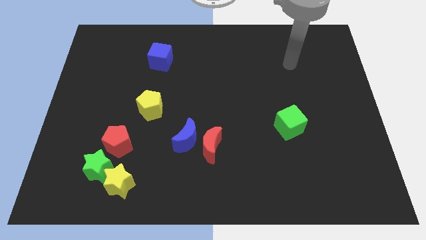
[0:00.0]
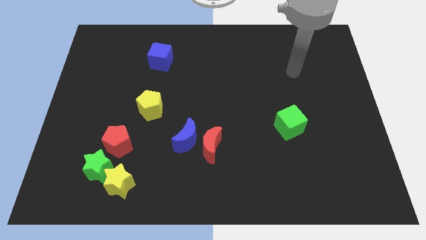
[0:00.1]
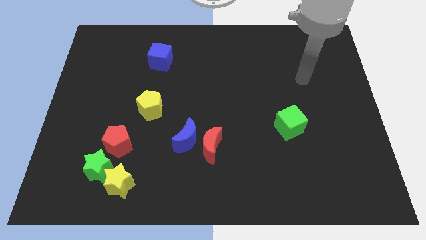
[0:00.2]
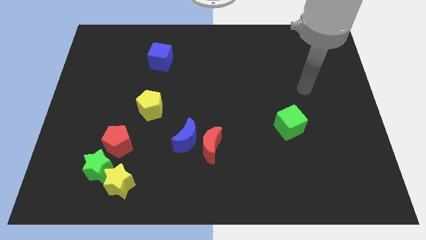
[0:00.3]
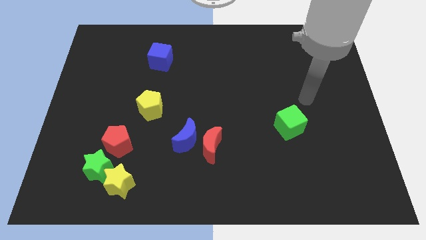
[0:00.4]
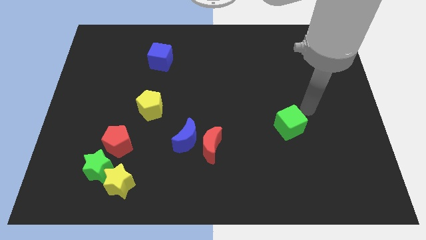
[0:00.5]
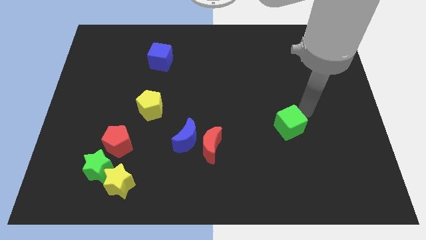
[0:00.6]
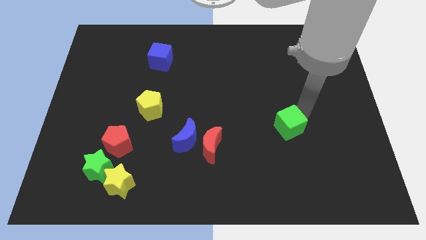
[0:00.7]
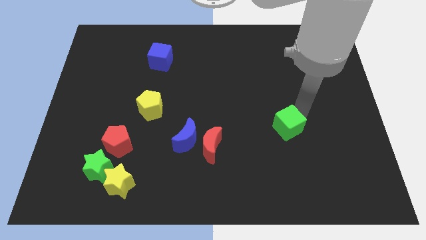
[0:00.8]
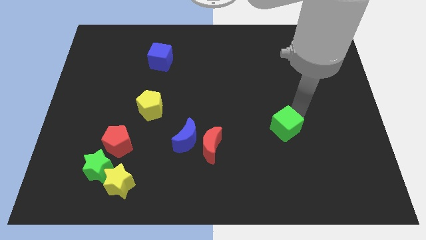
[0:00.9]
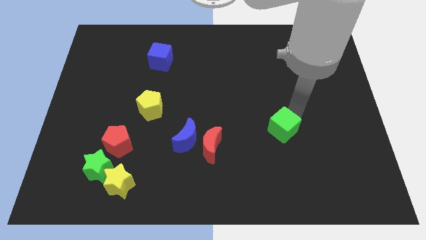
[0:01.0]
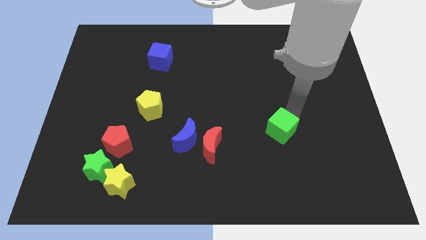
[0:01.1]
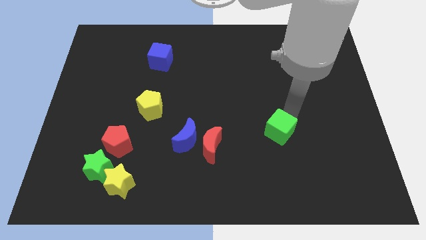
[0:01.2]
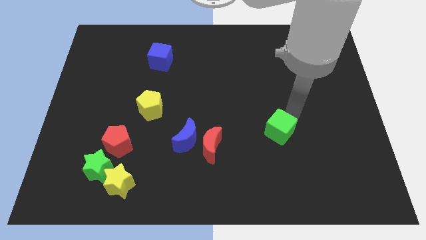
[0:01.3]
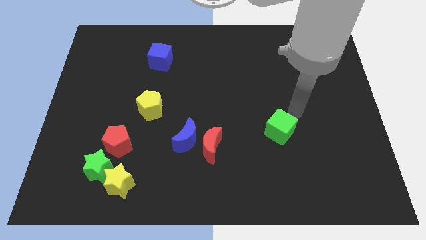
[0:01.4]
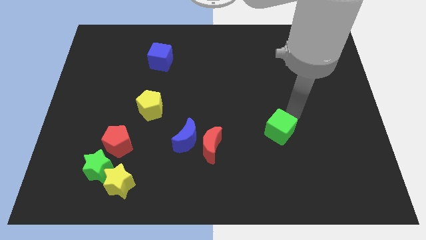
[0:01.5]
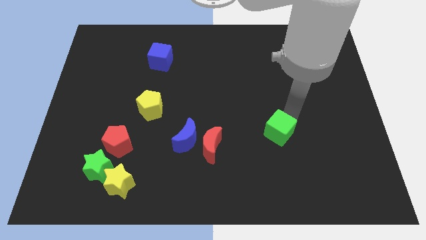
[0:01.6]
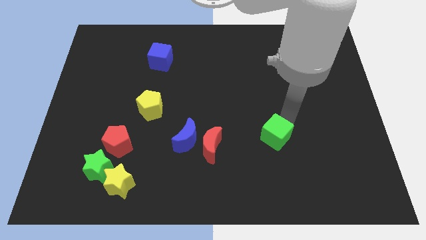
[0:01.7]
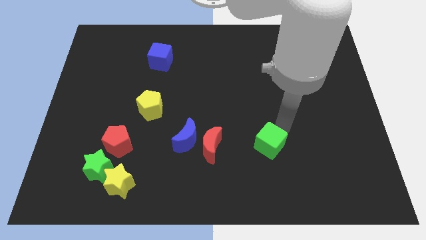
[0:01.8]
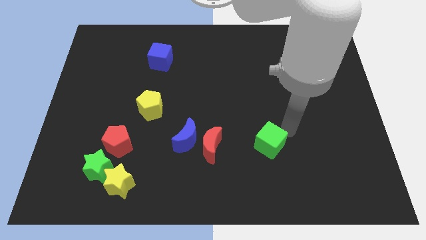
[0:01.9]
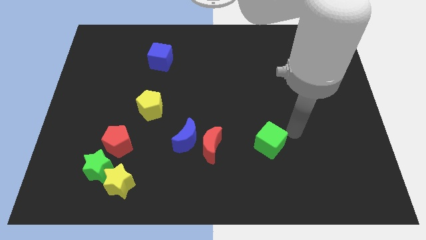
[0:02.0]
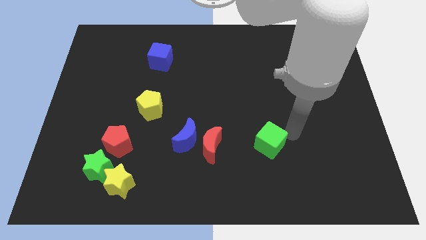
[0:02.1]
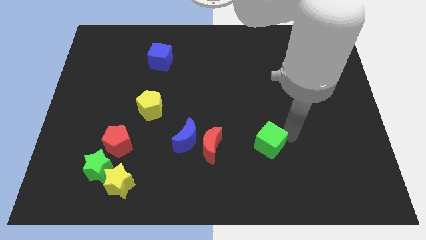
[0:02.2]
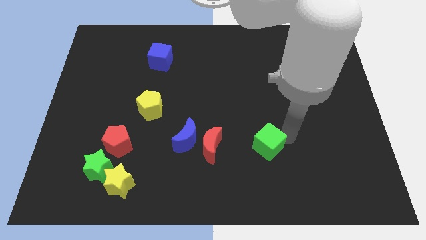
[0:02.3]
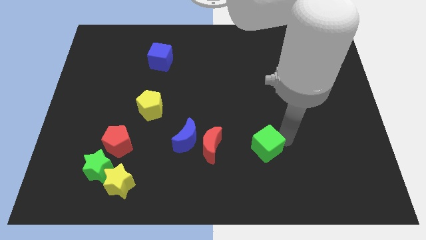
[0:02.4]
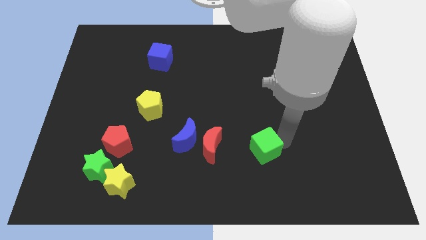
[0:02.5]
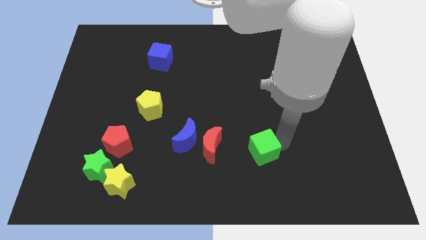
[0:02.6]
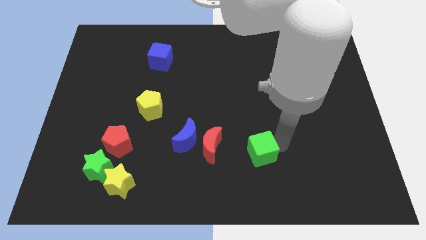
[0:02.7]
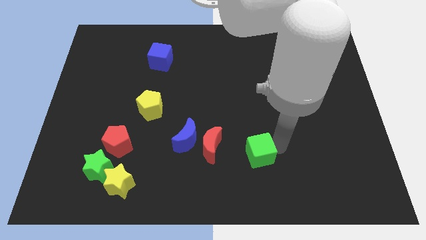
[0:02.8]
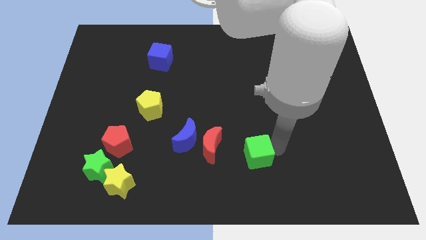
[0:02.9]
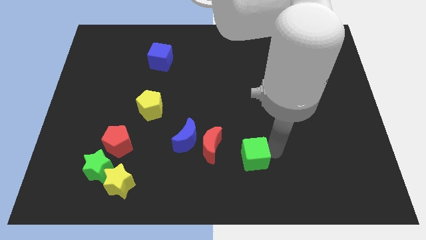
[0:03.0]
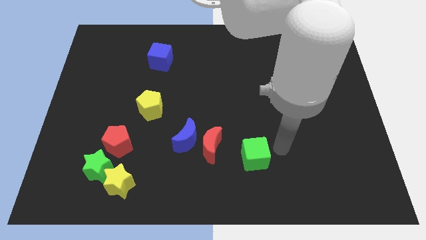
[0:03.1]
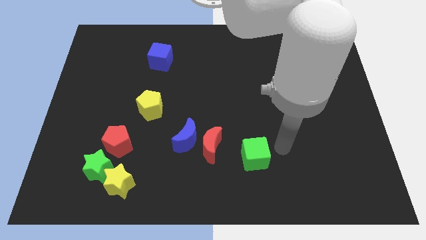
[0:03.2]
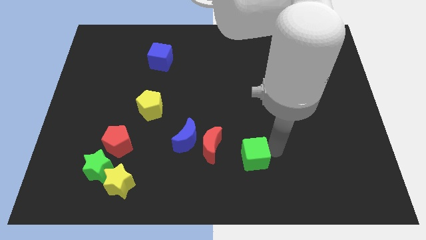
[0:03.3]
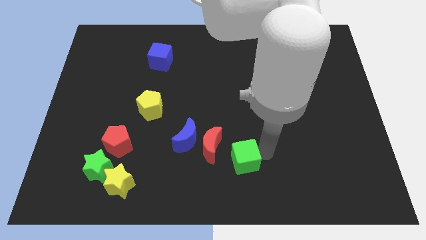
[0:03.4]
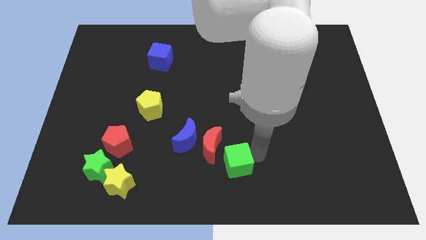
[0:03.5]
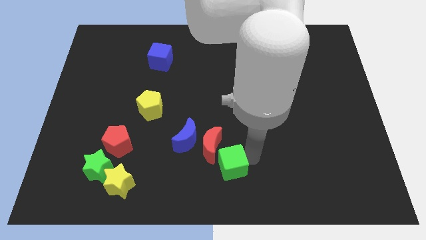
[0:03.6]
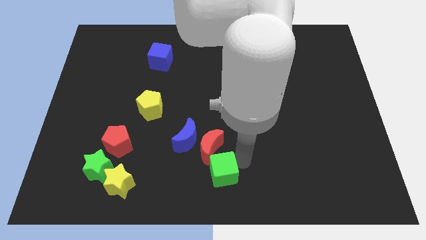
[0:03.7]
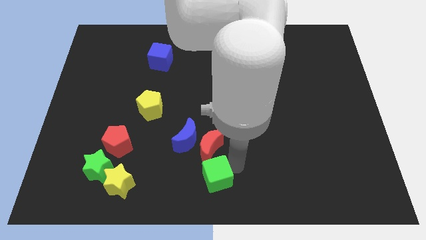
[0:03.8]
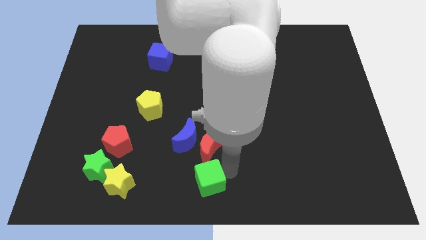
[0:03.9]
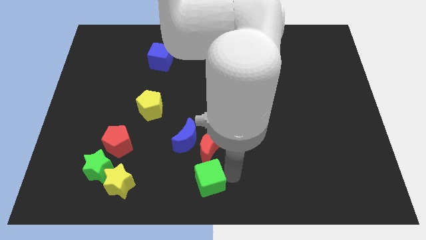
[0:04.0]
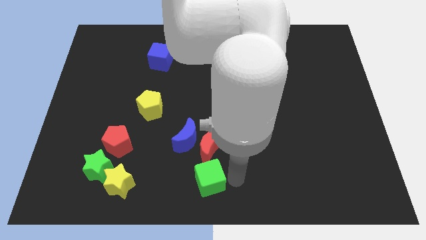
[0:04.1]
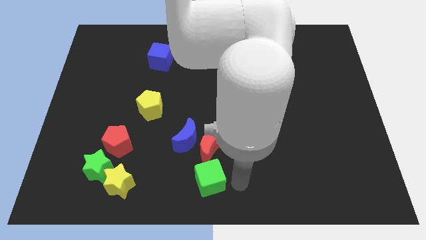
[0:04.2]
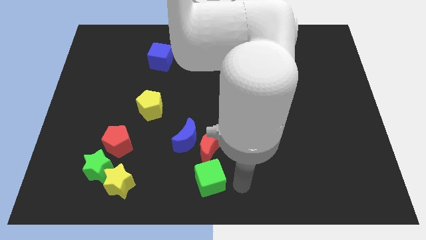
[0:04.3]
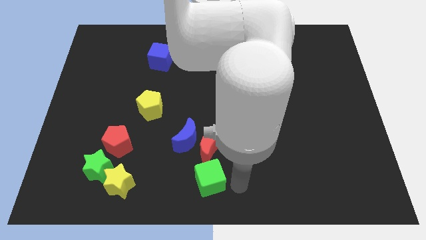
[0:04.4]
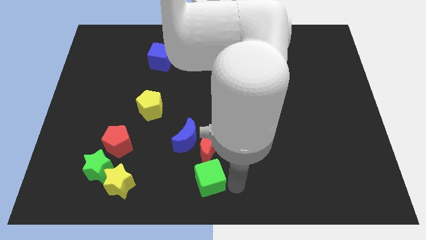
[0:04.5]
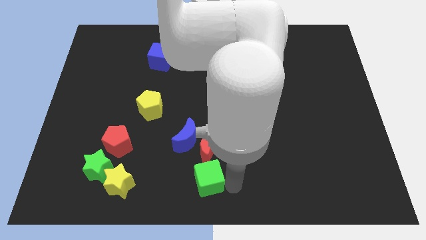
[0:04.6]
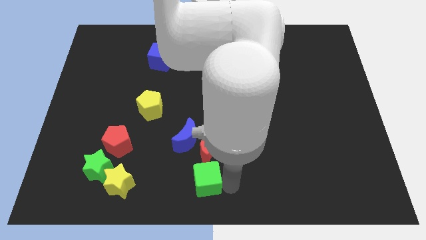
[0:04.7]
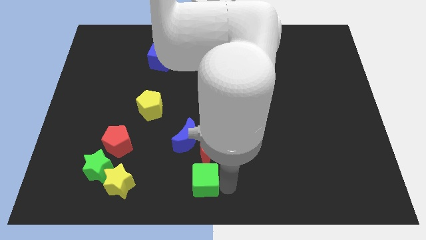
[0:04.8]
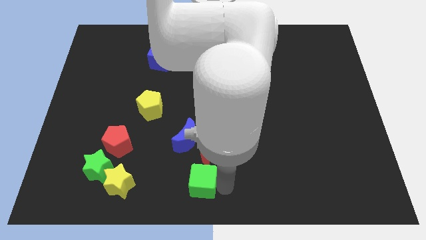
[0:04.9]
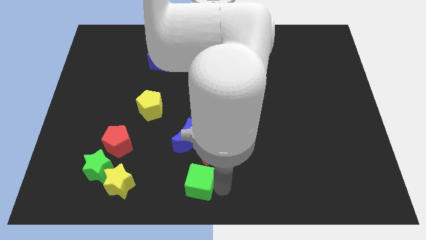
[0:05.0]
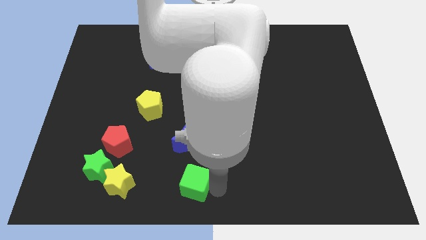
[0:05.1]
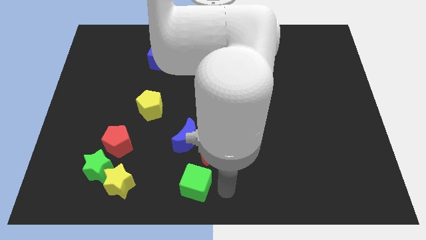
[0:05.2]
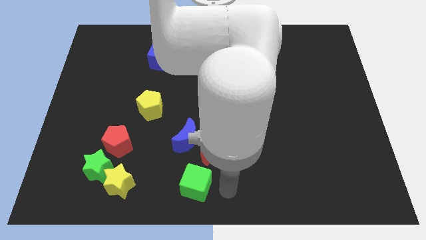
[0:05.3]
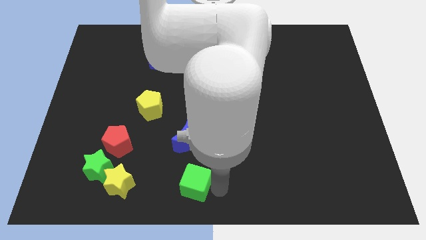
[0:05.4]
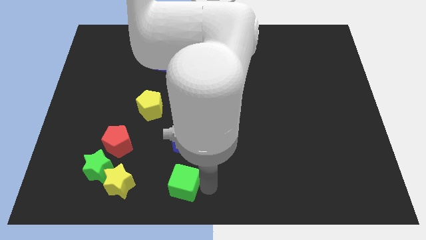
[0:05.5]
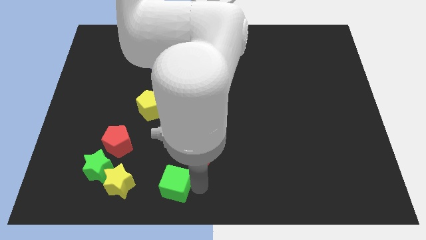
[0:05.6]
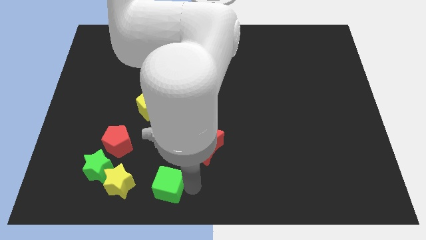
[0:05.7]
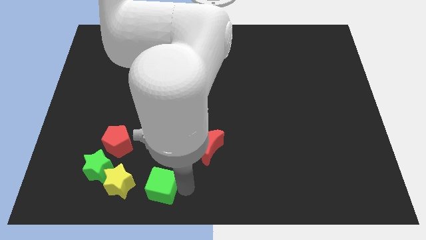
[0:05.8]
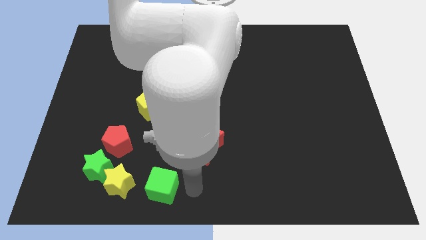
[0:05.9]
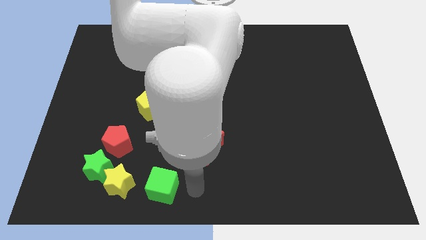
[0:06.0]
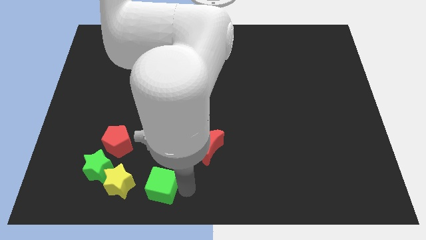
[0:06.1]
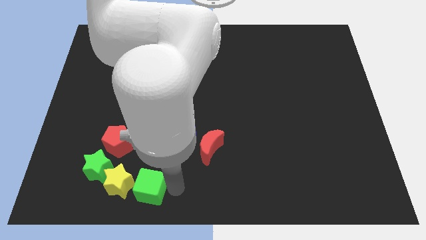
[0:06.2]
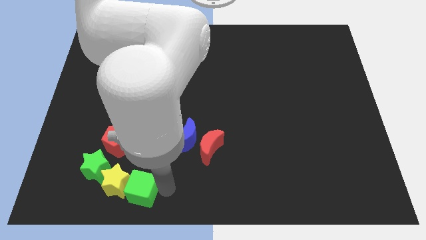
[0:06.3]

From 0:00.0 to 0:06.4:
slide the green cube to the yellow star
